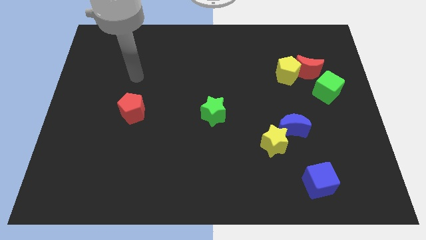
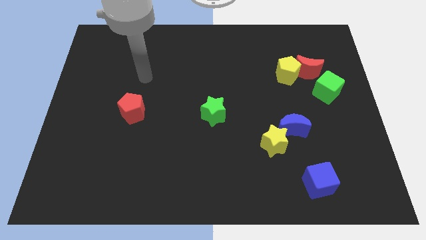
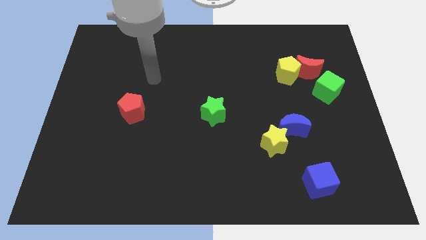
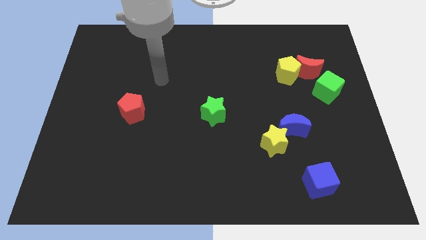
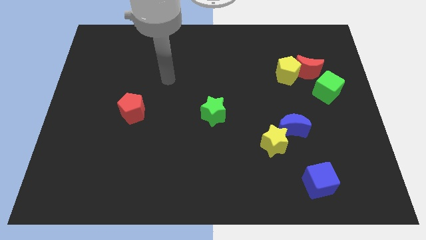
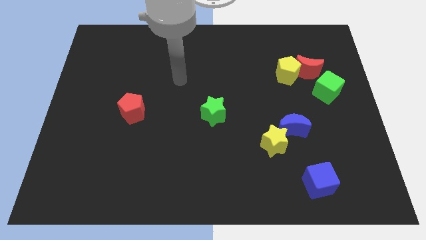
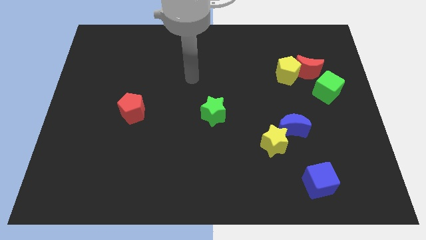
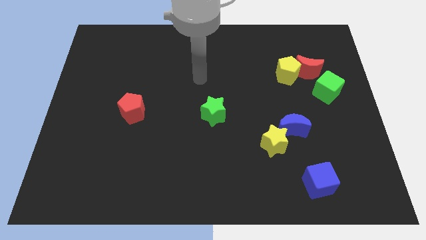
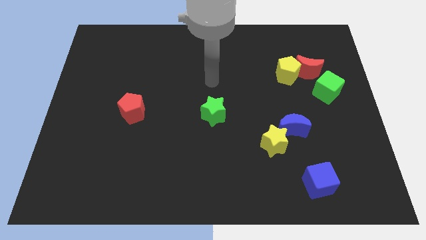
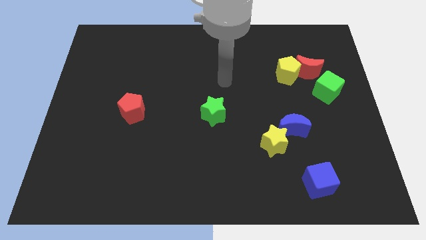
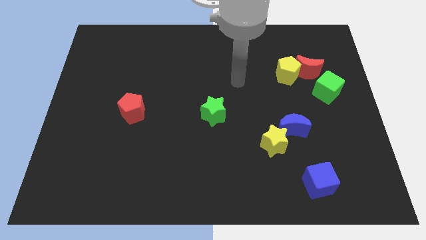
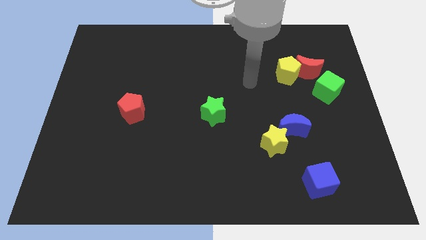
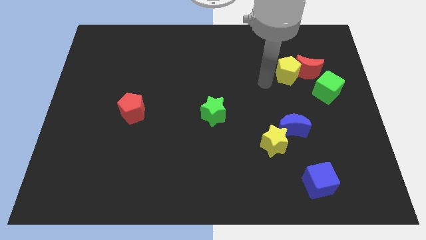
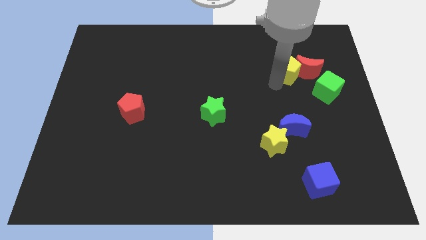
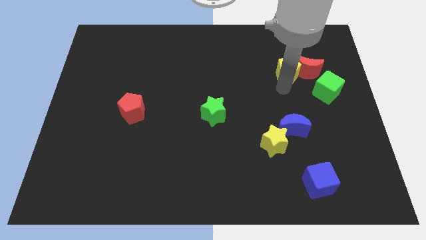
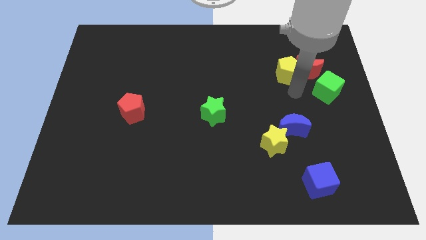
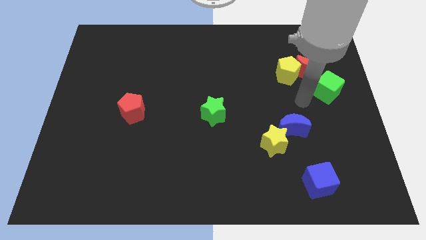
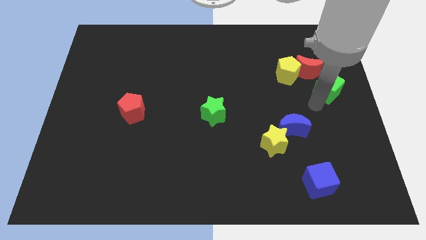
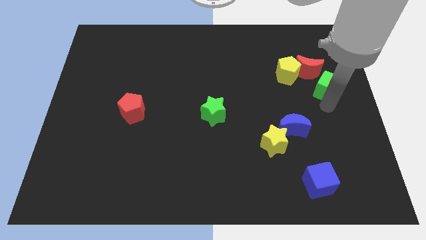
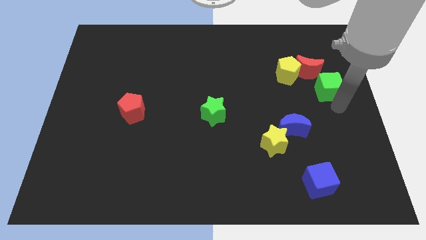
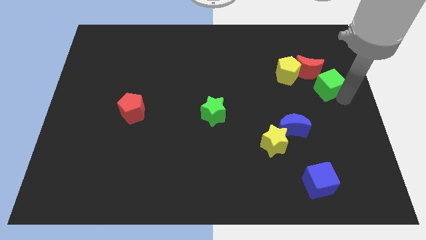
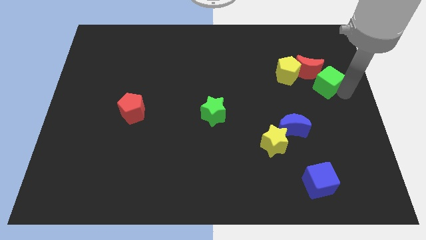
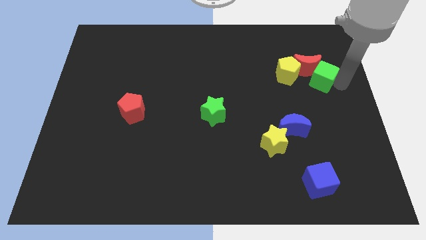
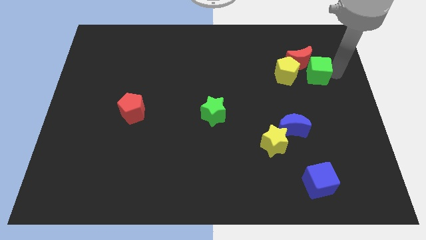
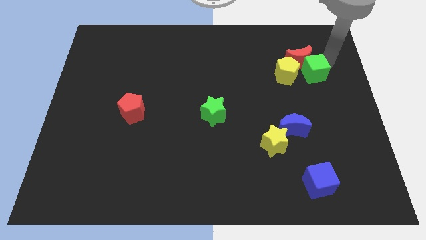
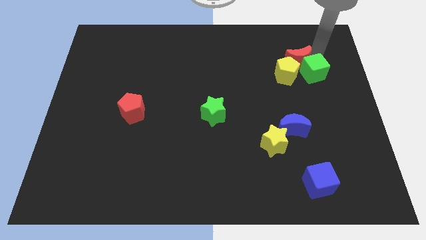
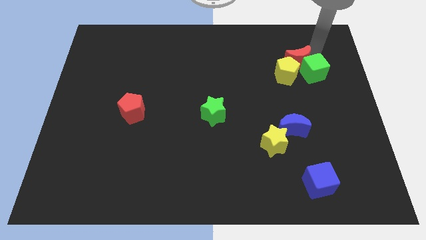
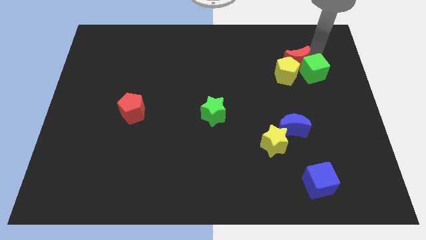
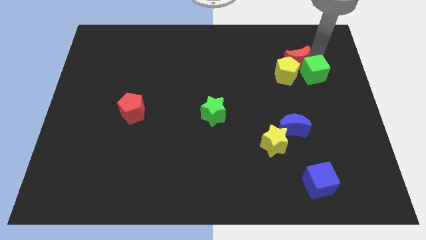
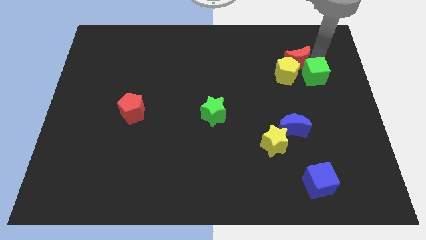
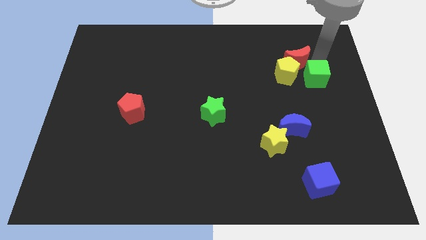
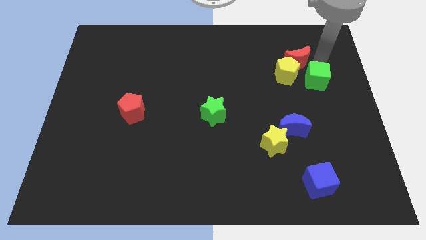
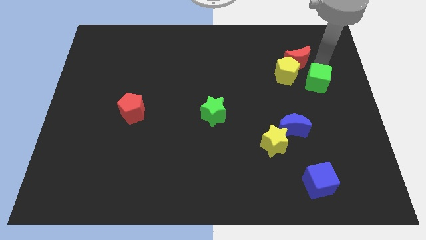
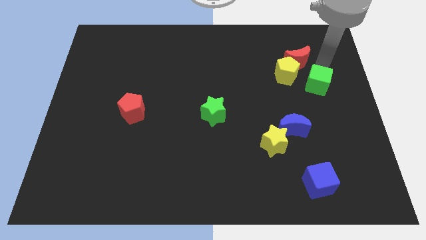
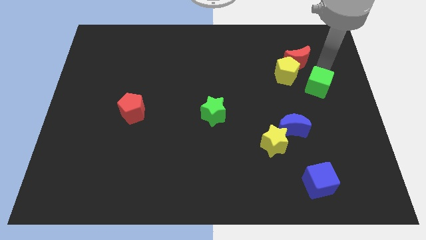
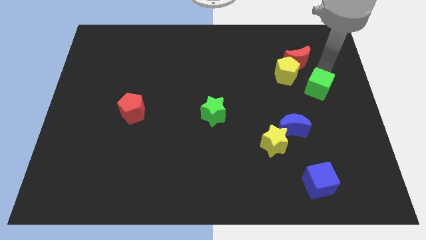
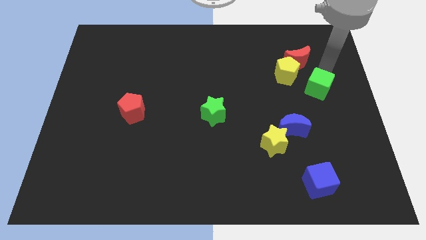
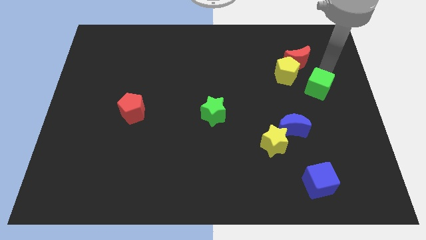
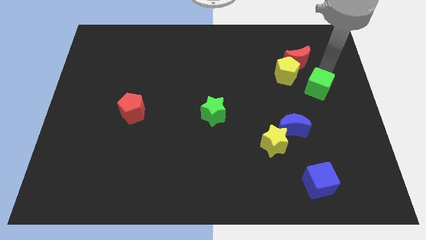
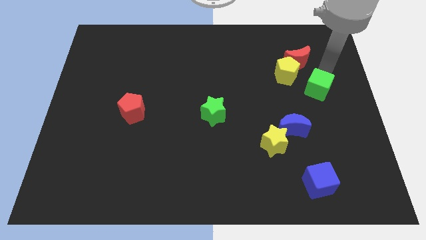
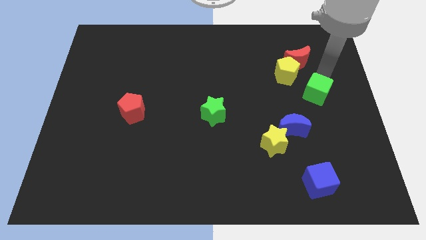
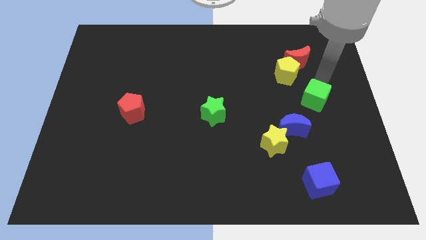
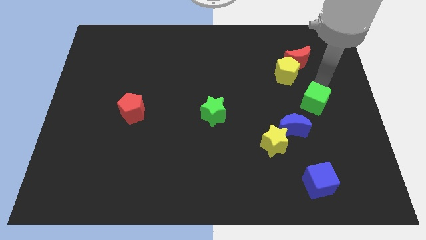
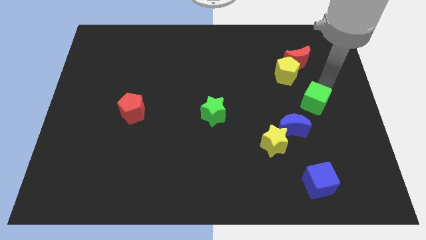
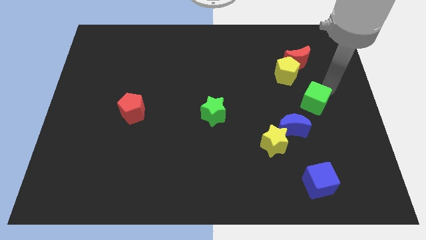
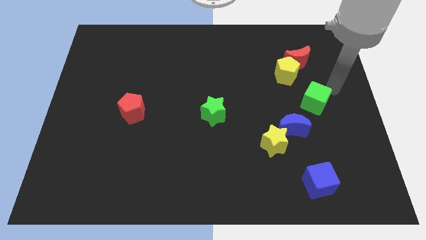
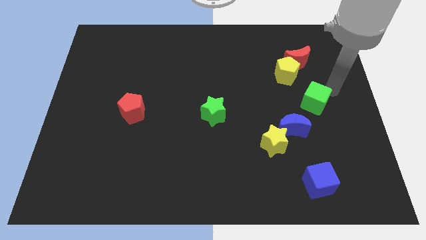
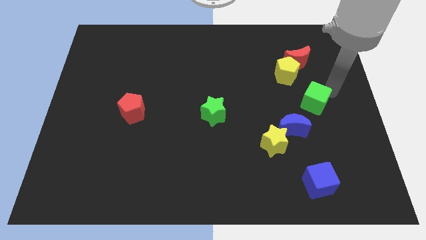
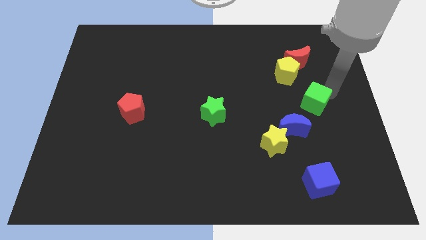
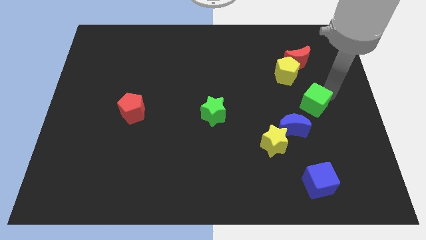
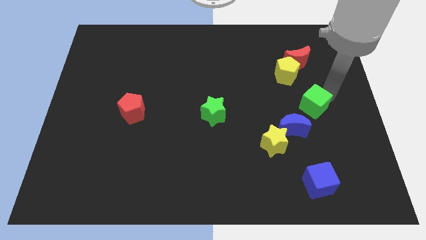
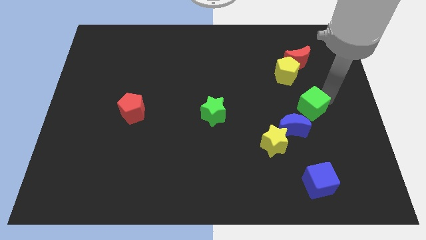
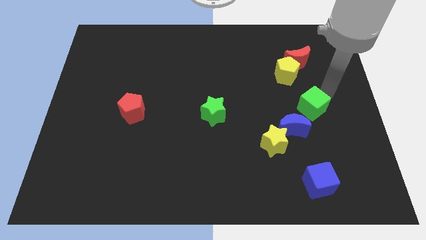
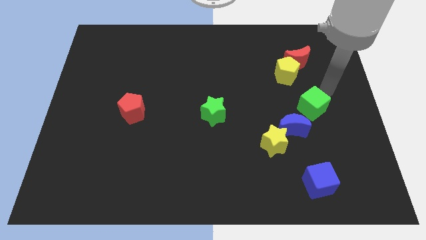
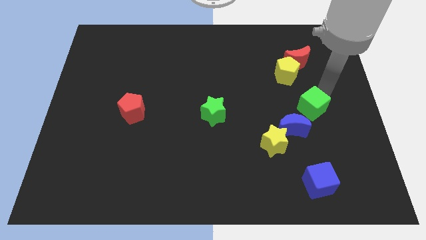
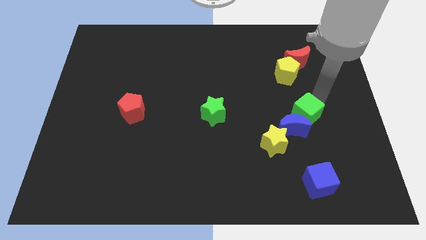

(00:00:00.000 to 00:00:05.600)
put the green cube towards the blue moon

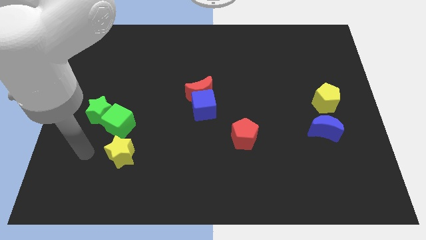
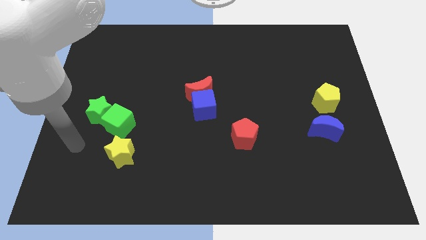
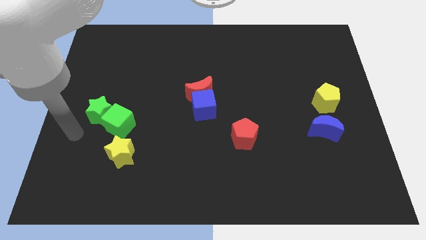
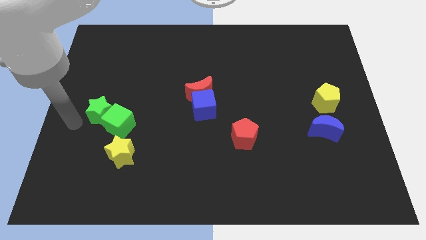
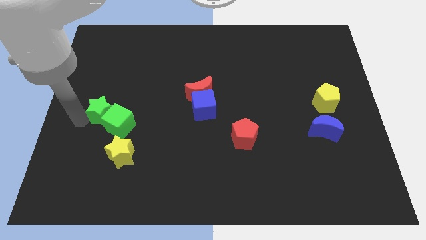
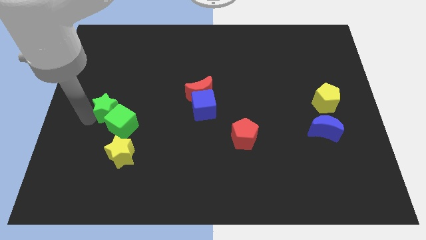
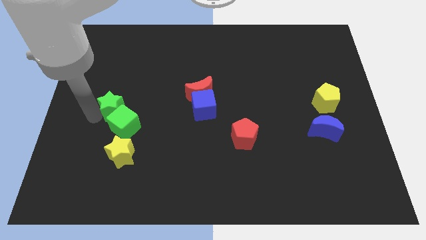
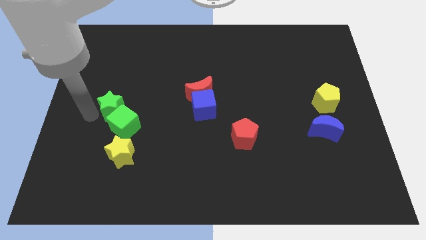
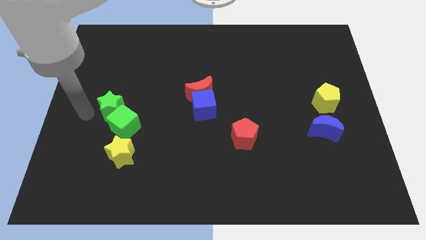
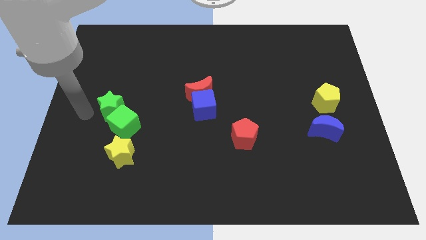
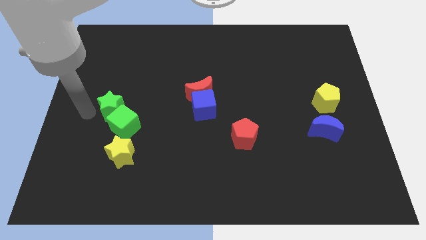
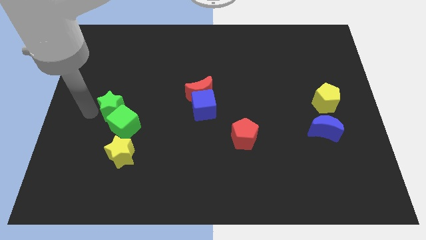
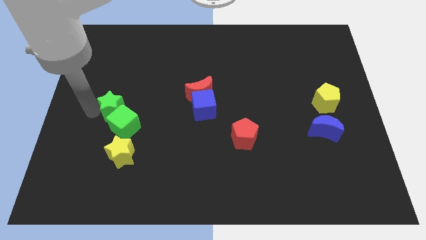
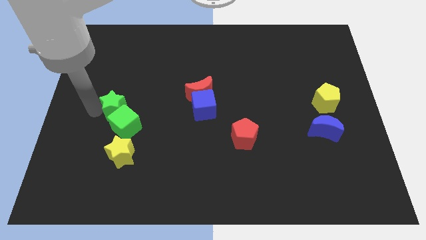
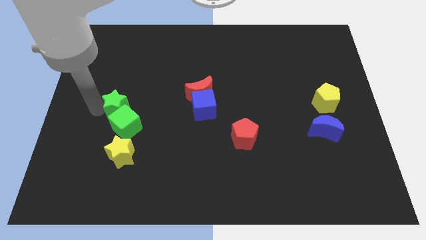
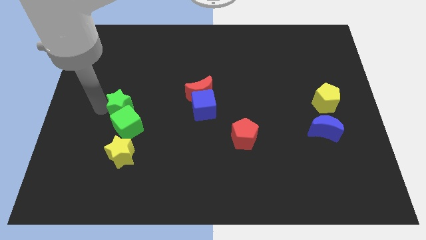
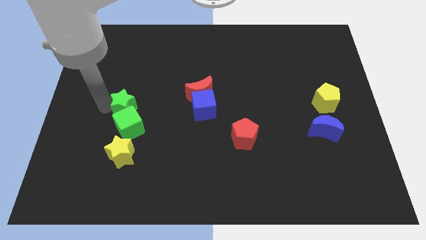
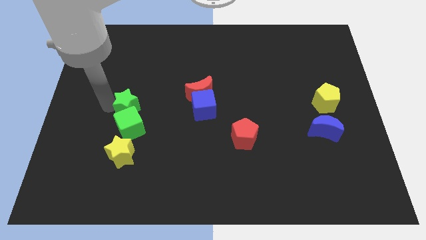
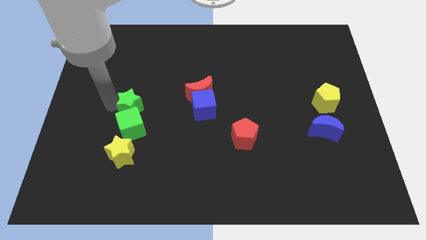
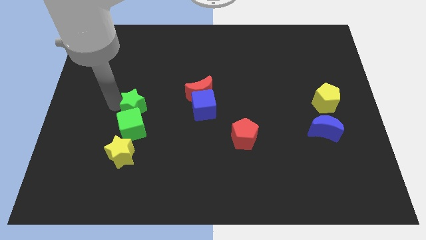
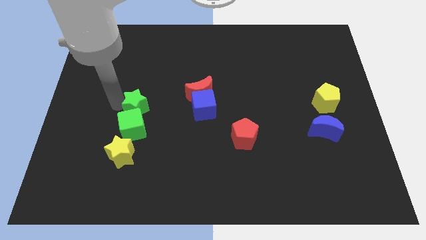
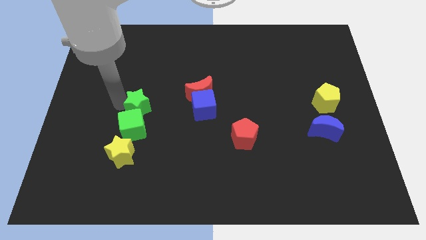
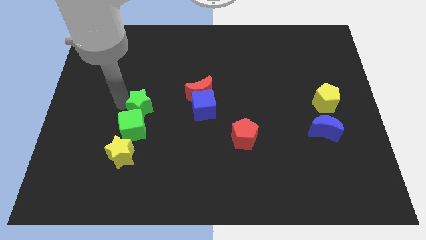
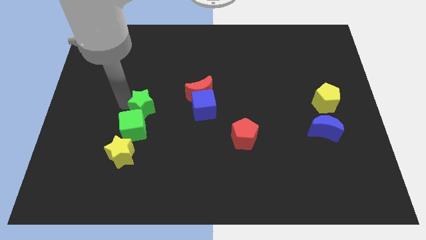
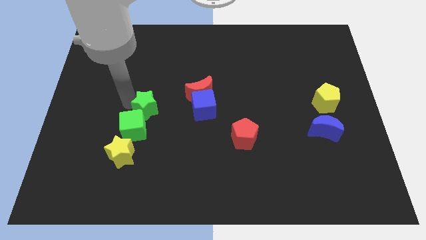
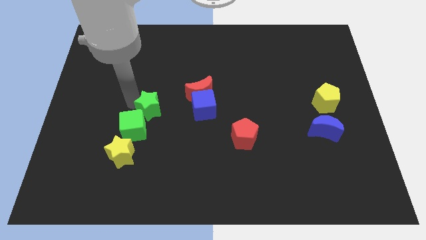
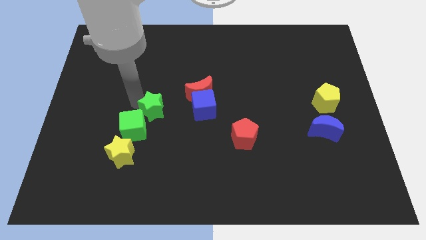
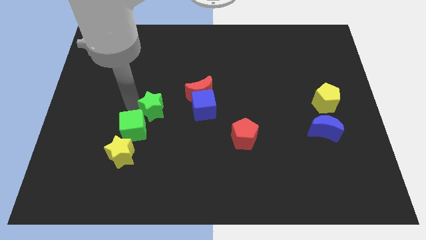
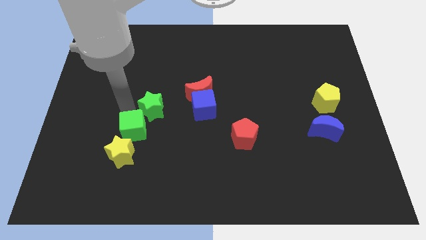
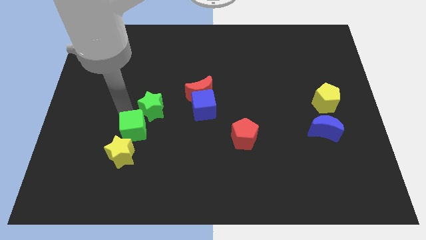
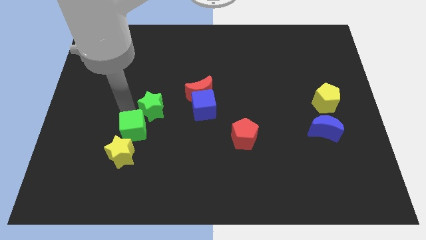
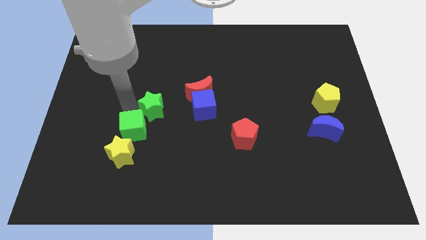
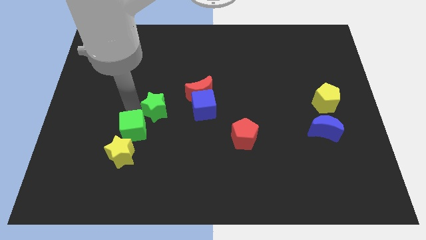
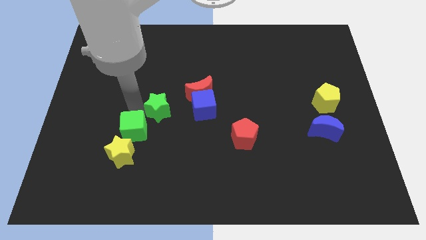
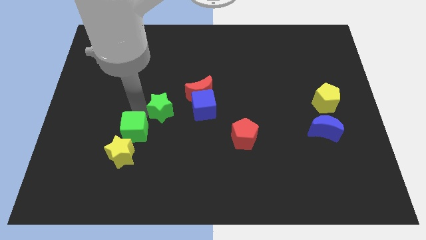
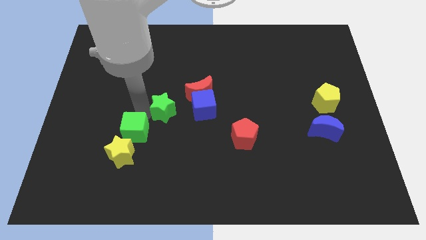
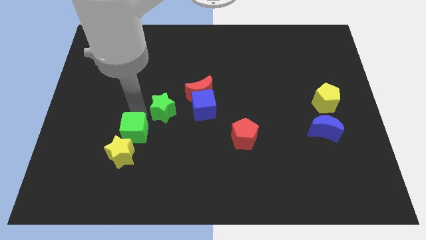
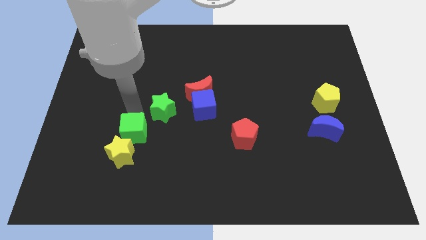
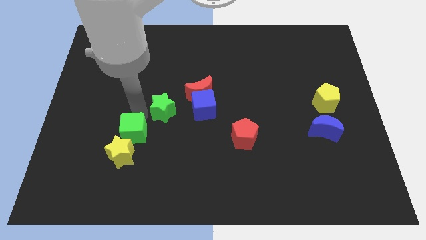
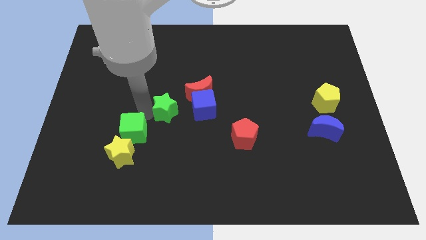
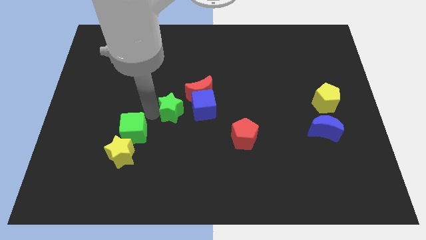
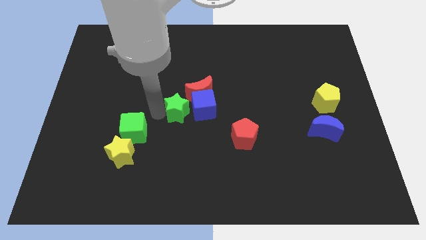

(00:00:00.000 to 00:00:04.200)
push the green star close to the blue cube
